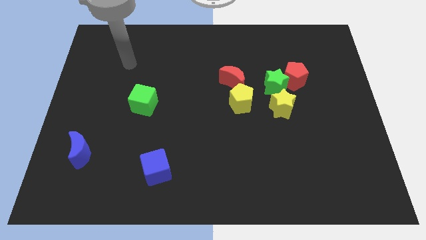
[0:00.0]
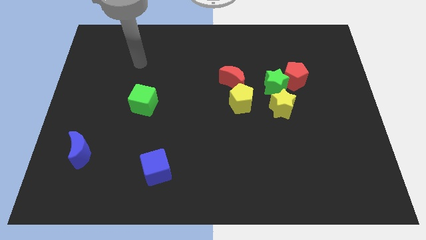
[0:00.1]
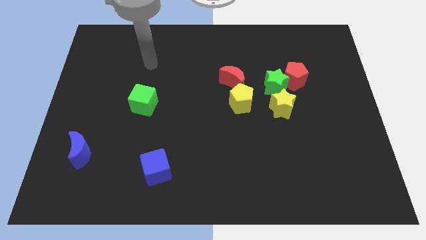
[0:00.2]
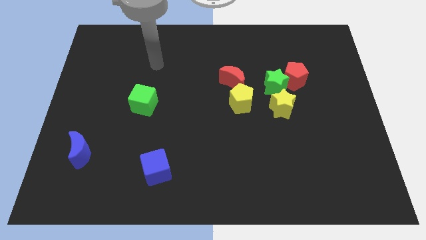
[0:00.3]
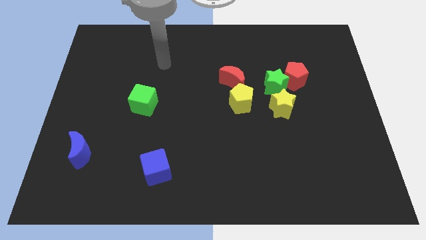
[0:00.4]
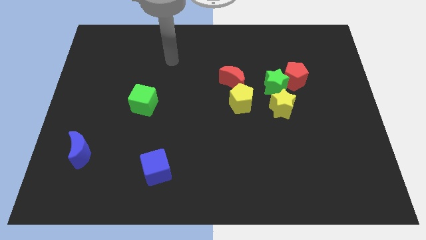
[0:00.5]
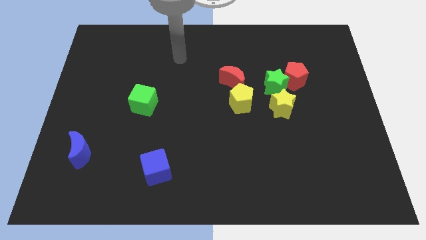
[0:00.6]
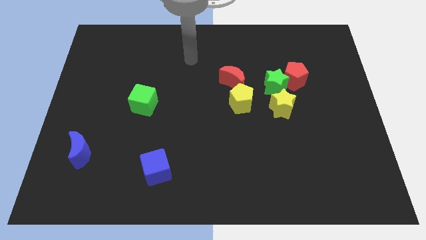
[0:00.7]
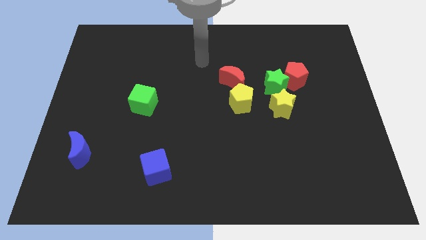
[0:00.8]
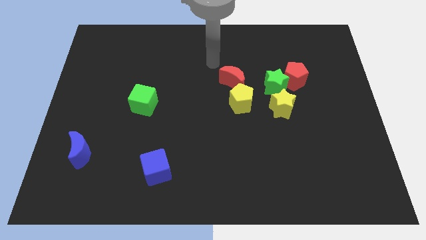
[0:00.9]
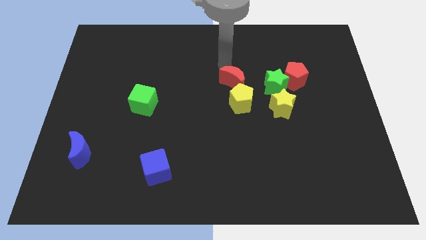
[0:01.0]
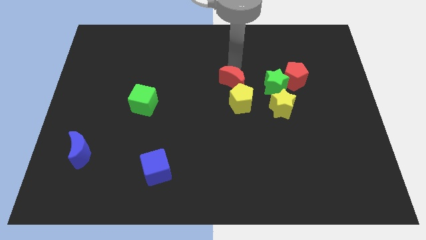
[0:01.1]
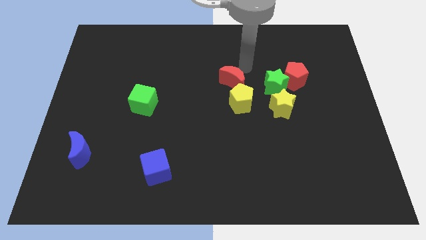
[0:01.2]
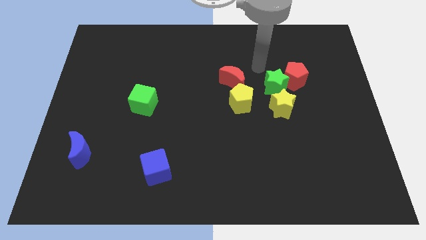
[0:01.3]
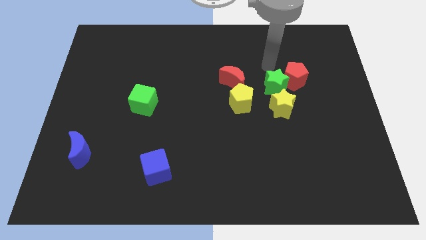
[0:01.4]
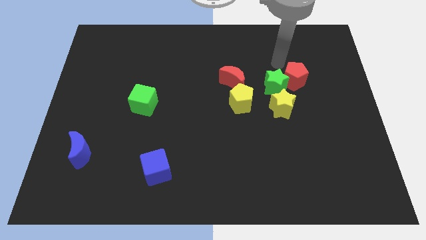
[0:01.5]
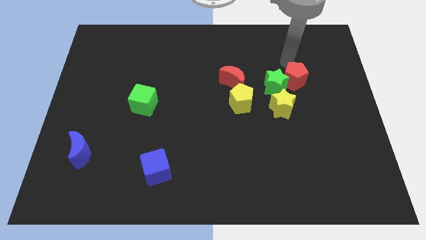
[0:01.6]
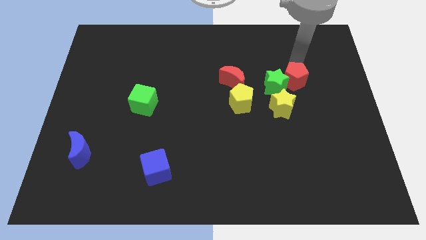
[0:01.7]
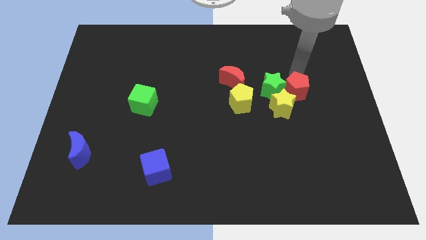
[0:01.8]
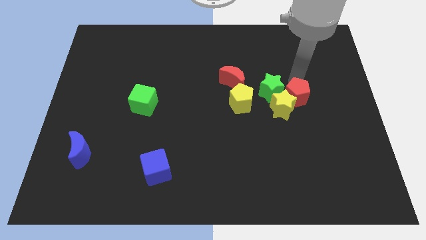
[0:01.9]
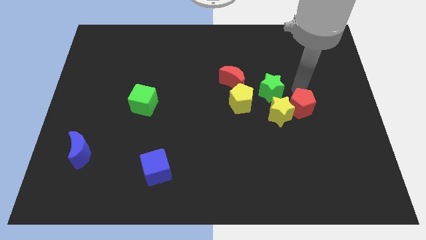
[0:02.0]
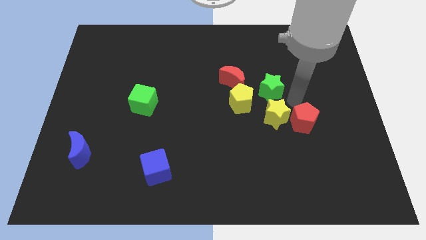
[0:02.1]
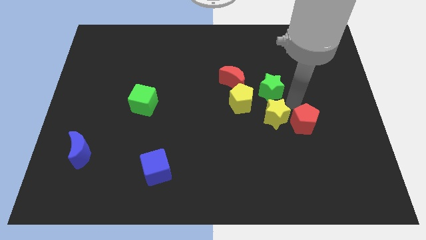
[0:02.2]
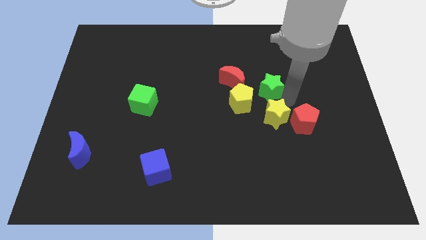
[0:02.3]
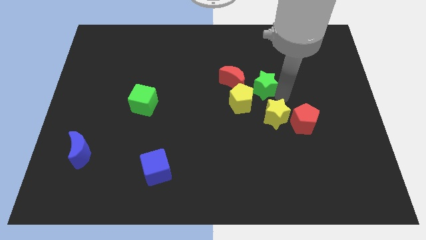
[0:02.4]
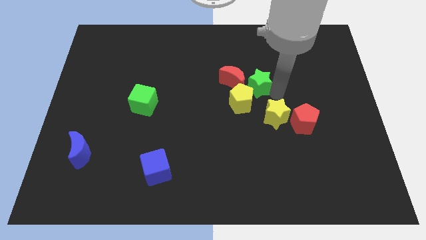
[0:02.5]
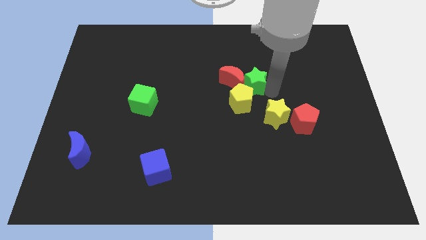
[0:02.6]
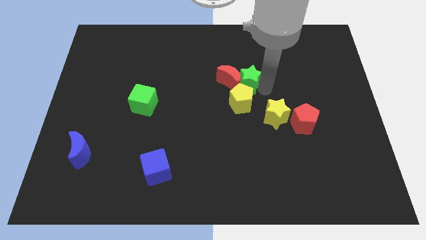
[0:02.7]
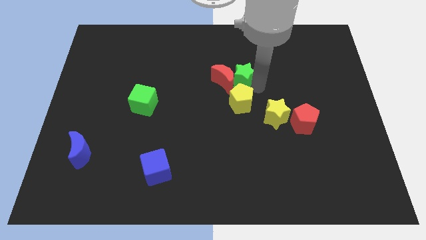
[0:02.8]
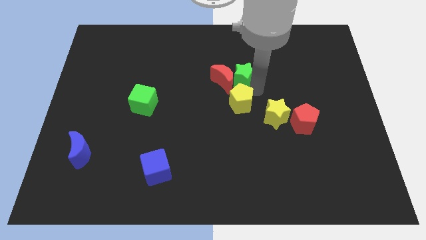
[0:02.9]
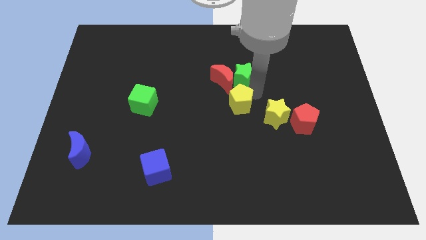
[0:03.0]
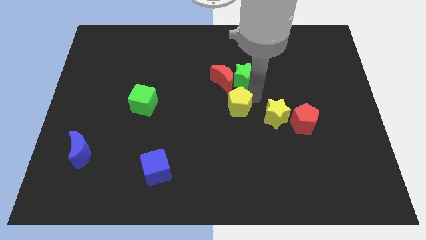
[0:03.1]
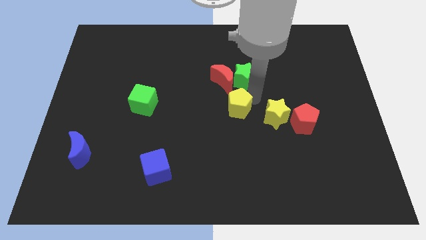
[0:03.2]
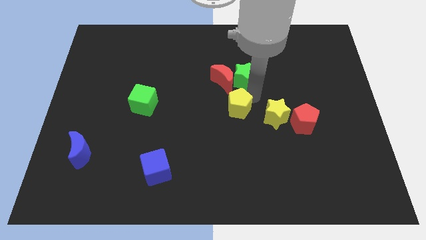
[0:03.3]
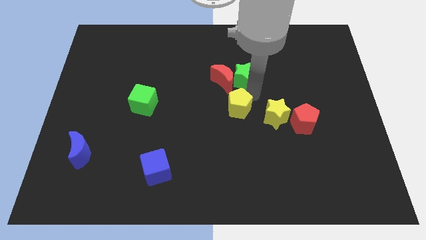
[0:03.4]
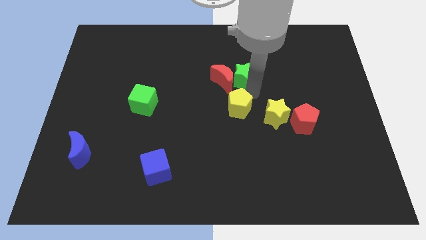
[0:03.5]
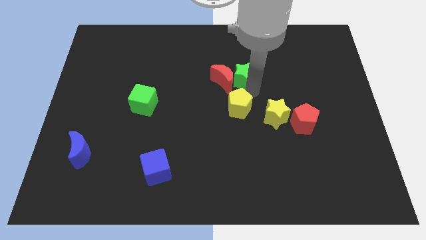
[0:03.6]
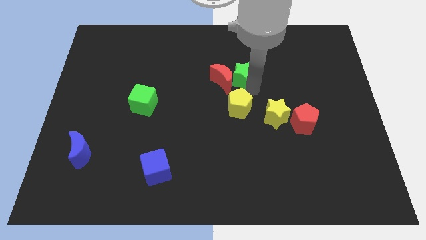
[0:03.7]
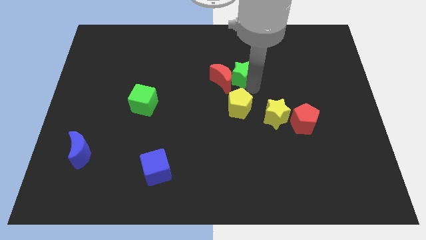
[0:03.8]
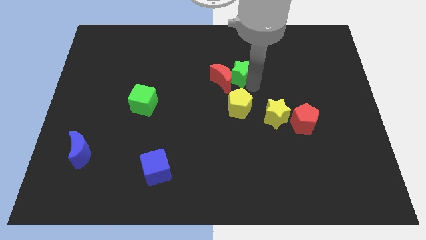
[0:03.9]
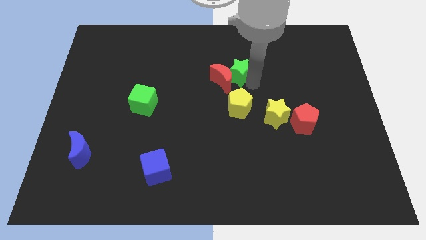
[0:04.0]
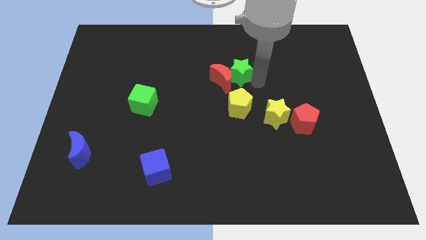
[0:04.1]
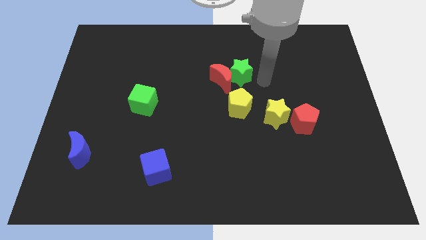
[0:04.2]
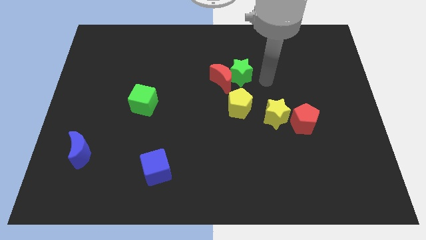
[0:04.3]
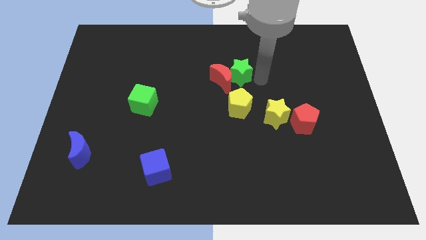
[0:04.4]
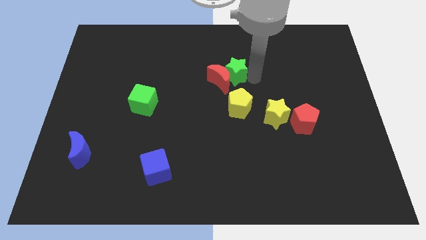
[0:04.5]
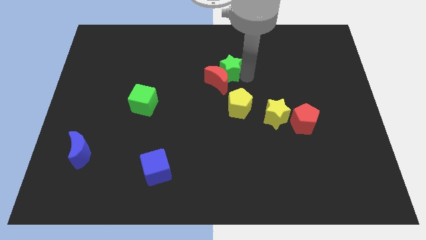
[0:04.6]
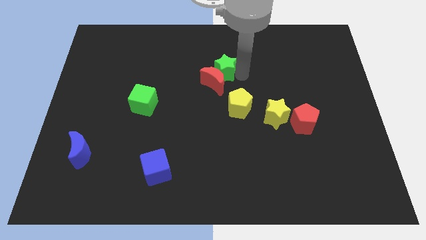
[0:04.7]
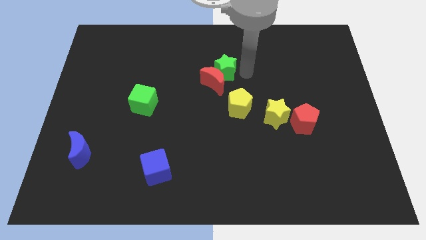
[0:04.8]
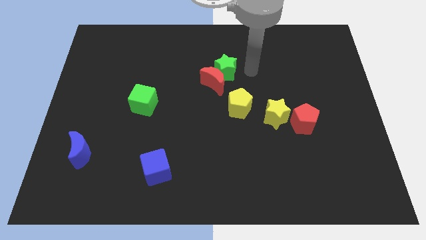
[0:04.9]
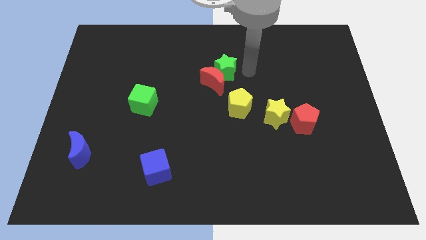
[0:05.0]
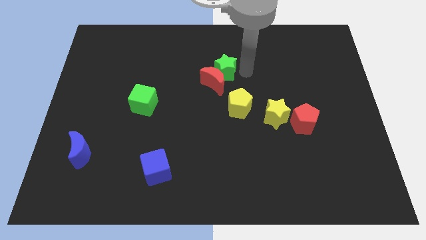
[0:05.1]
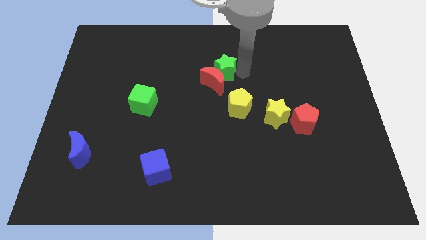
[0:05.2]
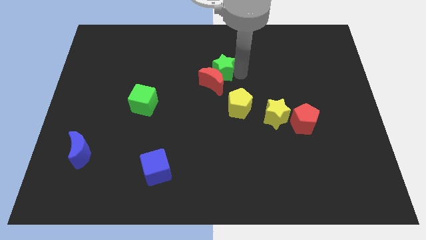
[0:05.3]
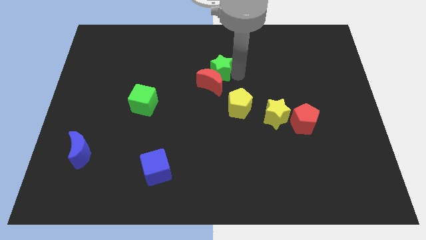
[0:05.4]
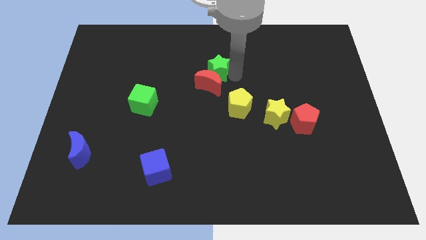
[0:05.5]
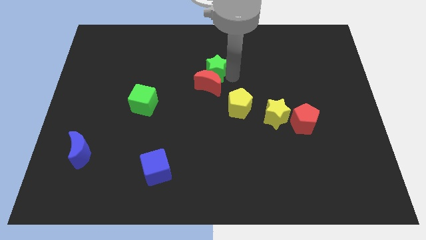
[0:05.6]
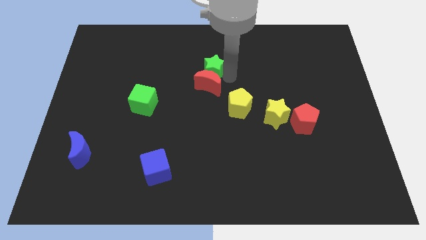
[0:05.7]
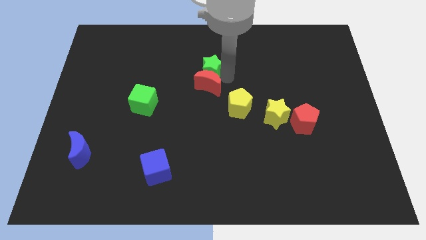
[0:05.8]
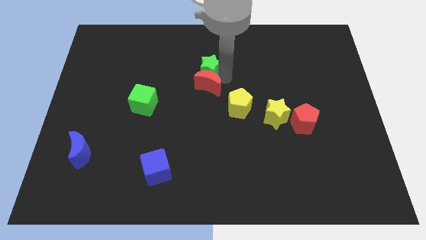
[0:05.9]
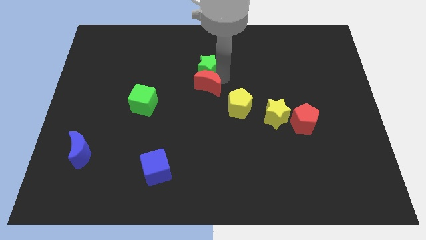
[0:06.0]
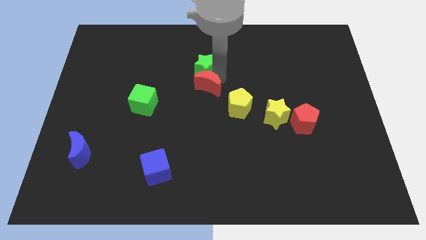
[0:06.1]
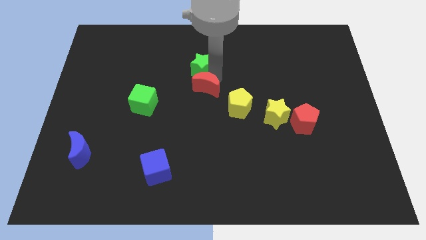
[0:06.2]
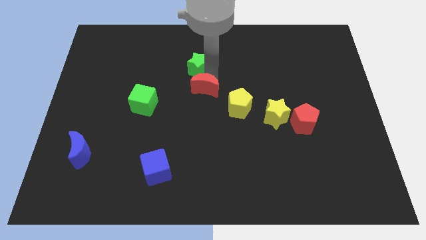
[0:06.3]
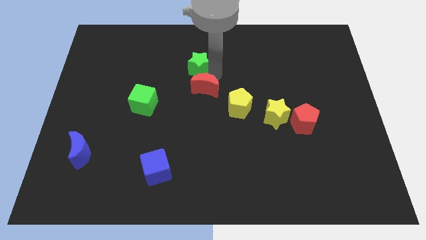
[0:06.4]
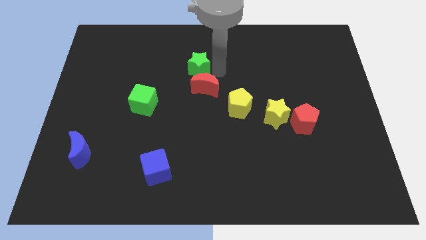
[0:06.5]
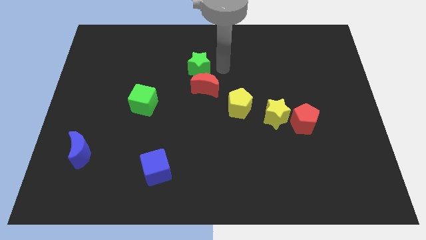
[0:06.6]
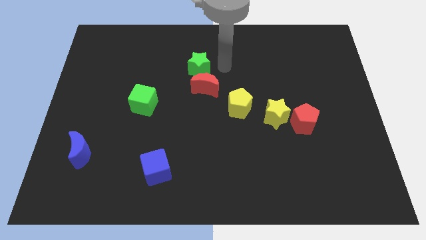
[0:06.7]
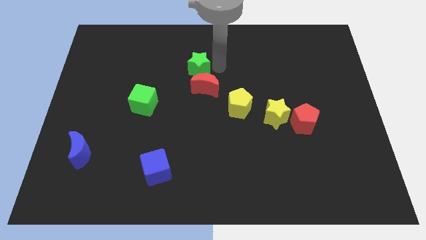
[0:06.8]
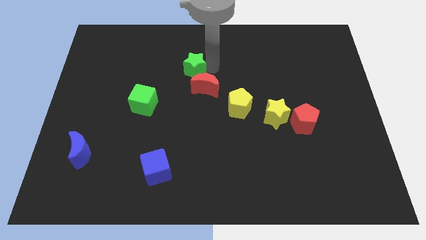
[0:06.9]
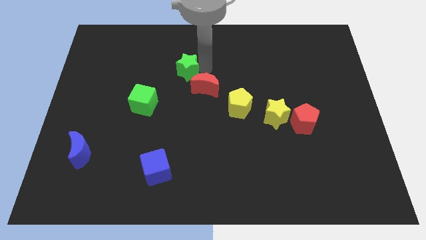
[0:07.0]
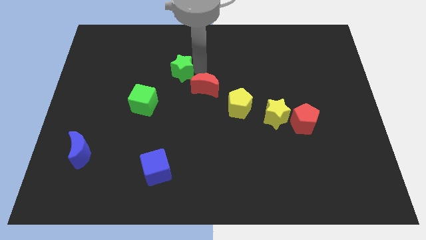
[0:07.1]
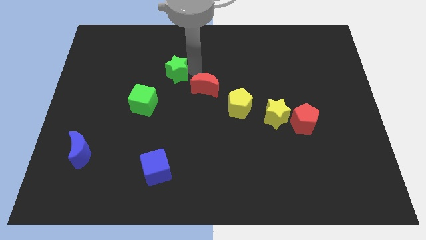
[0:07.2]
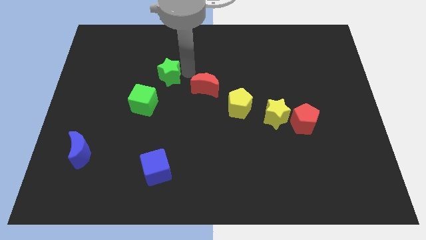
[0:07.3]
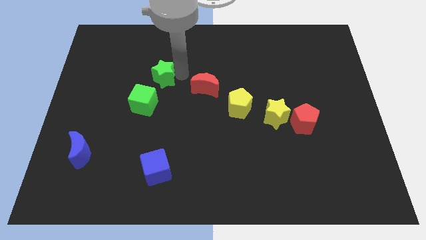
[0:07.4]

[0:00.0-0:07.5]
put the green star to the top side of the green cube

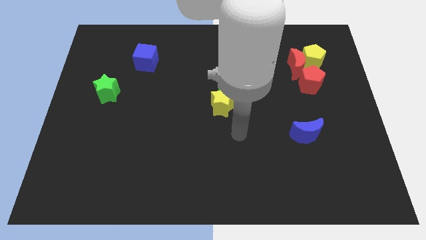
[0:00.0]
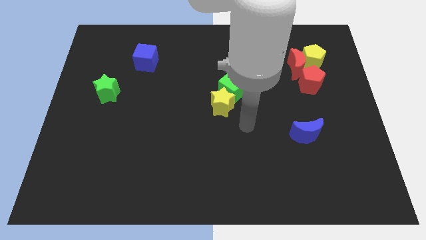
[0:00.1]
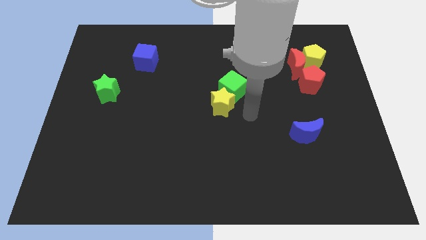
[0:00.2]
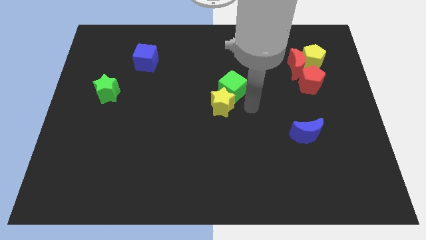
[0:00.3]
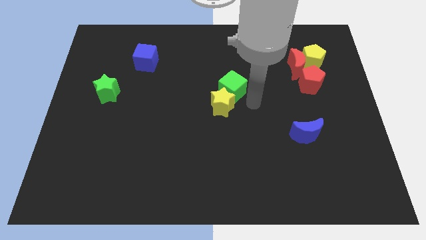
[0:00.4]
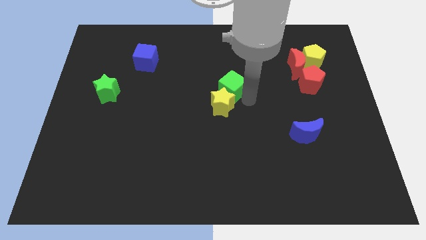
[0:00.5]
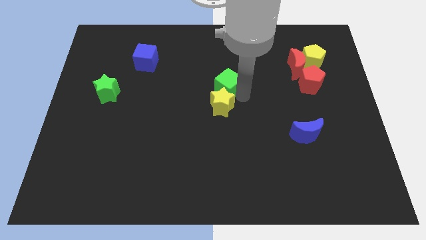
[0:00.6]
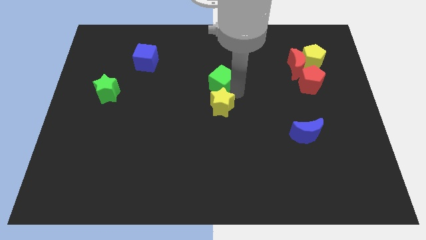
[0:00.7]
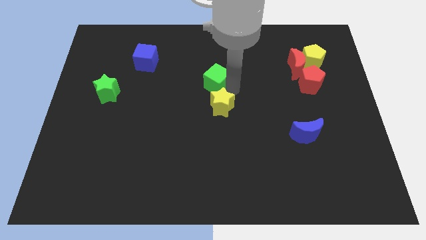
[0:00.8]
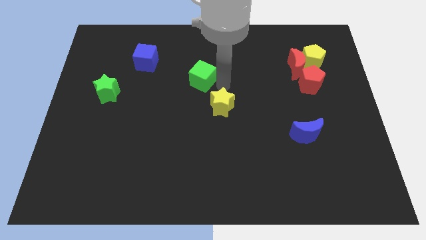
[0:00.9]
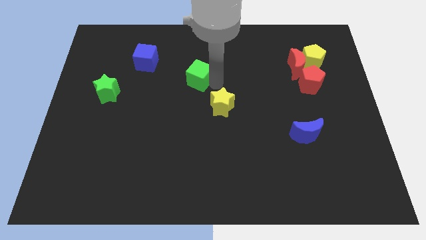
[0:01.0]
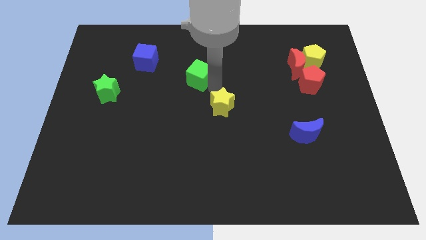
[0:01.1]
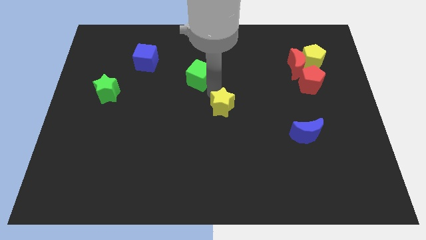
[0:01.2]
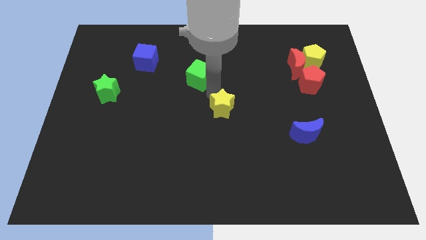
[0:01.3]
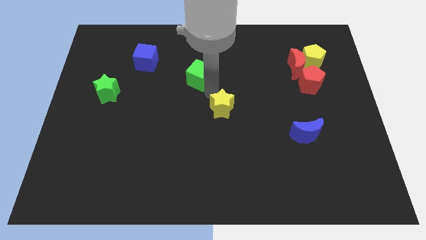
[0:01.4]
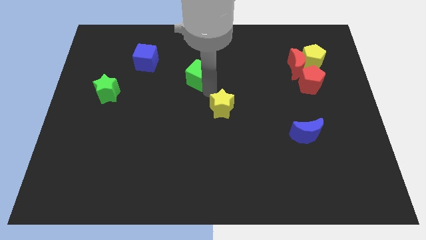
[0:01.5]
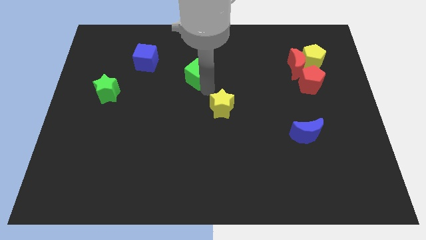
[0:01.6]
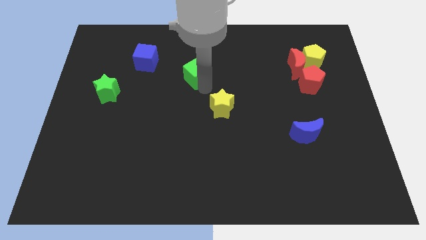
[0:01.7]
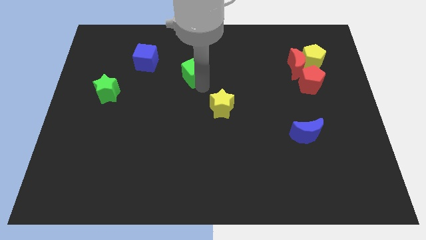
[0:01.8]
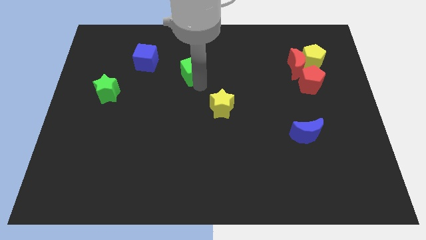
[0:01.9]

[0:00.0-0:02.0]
move the green cube to the right side of the blue cube
